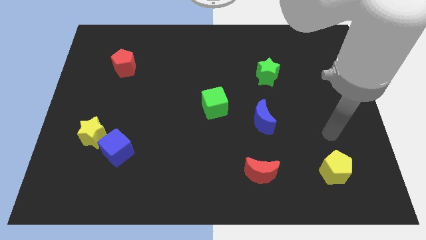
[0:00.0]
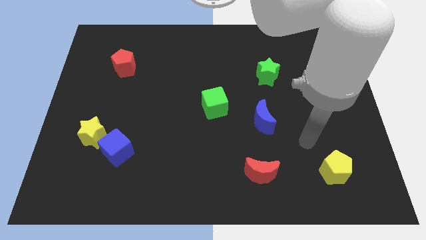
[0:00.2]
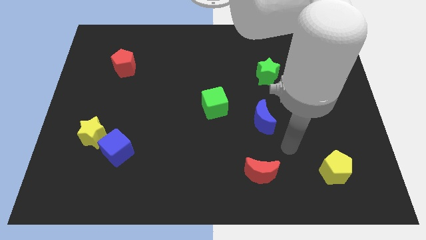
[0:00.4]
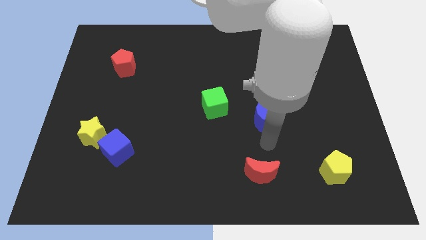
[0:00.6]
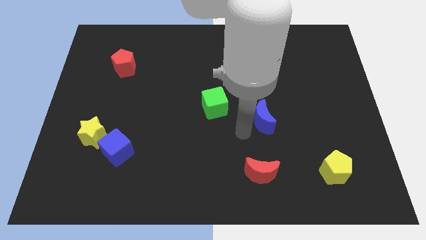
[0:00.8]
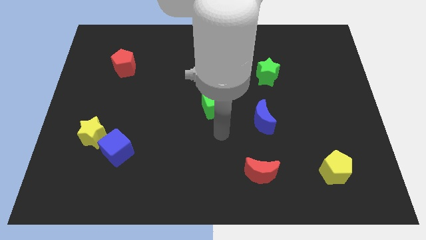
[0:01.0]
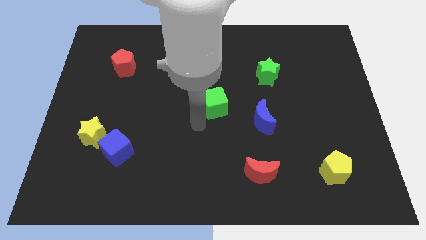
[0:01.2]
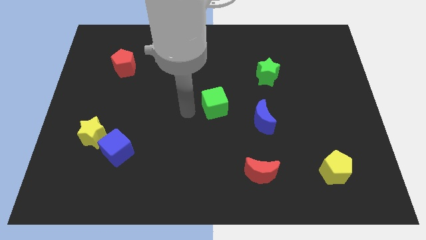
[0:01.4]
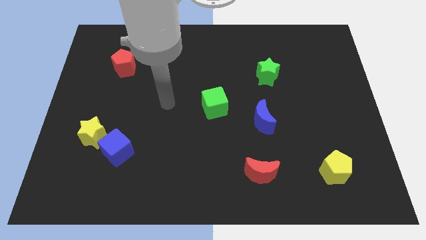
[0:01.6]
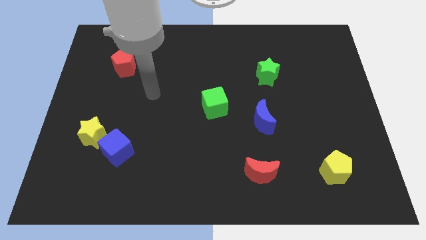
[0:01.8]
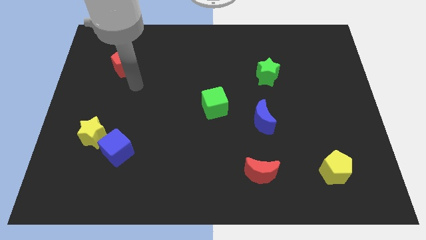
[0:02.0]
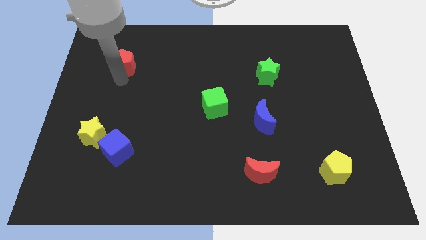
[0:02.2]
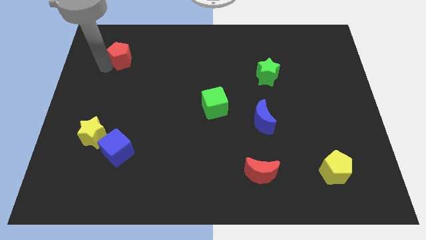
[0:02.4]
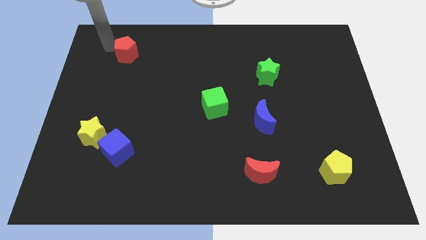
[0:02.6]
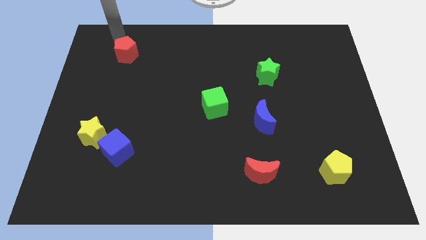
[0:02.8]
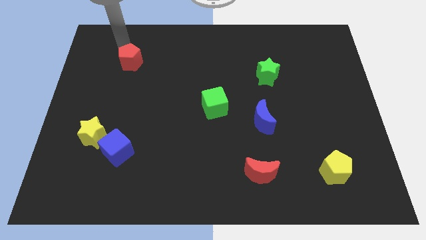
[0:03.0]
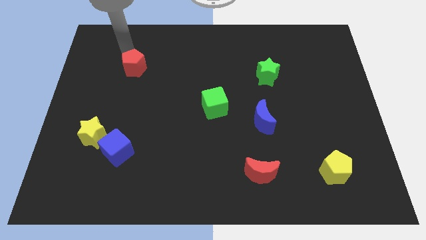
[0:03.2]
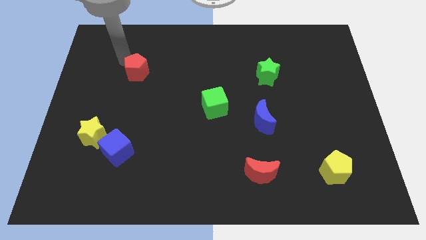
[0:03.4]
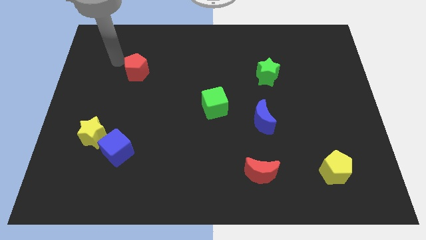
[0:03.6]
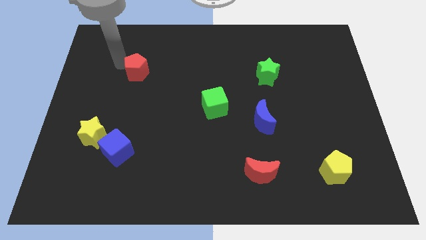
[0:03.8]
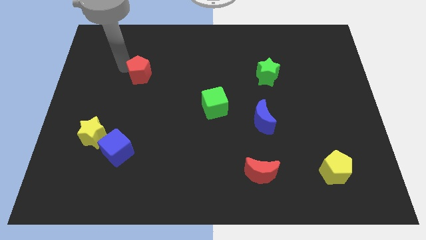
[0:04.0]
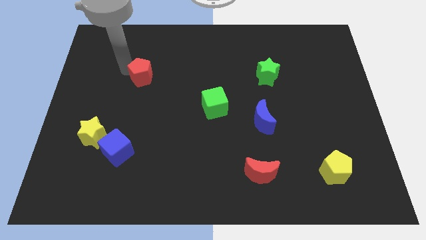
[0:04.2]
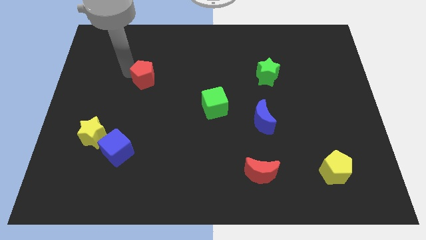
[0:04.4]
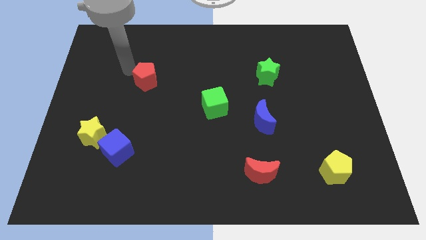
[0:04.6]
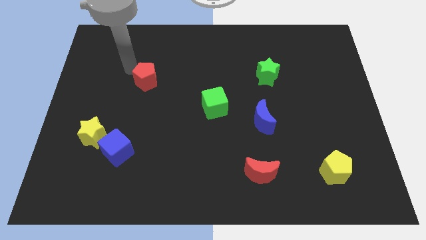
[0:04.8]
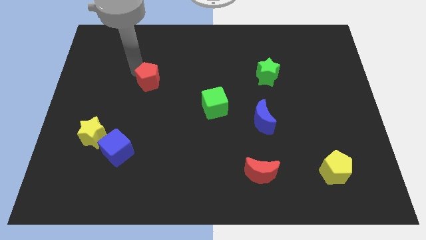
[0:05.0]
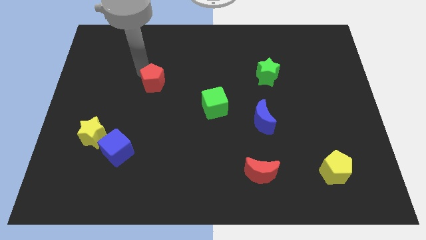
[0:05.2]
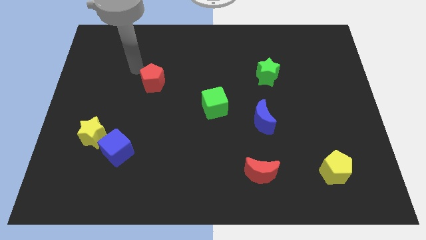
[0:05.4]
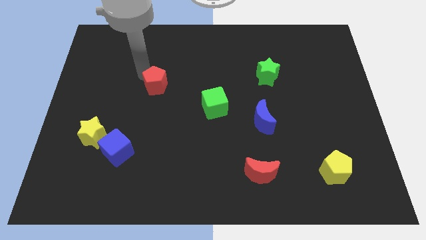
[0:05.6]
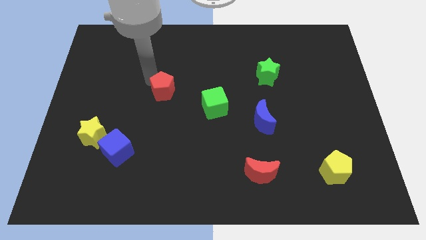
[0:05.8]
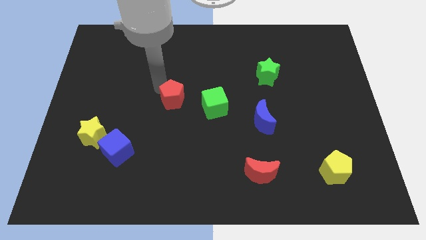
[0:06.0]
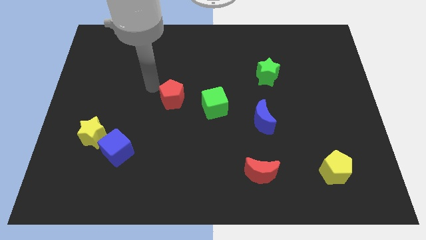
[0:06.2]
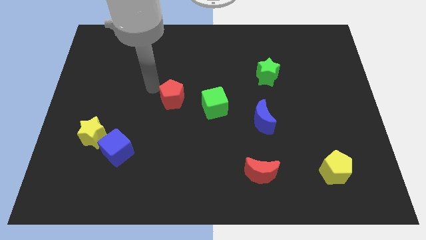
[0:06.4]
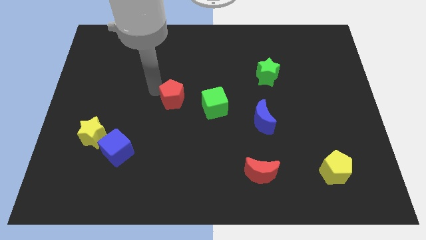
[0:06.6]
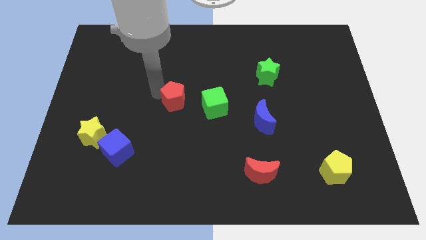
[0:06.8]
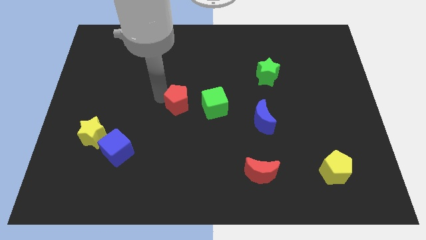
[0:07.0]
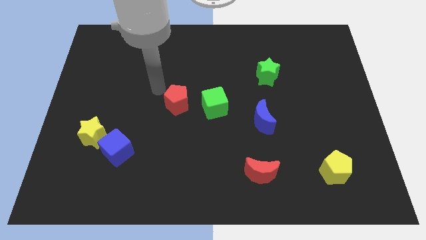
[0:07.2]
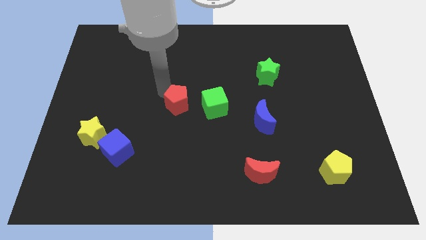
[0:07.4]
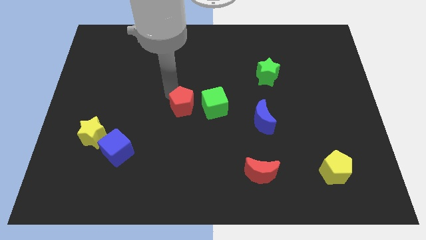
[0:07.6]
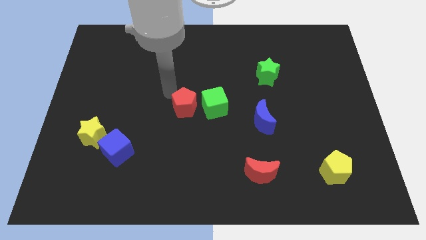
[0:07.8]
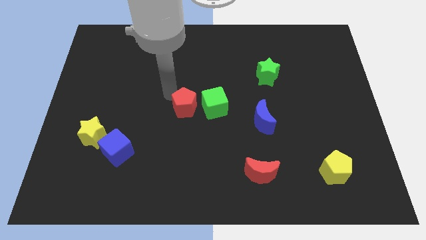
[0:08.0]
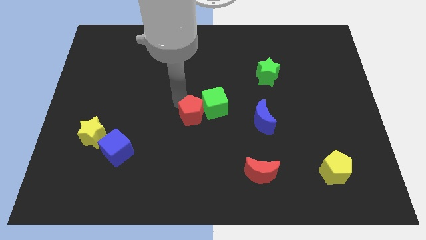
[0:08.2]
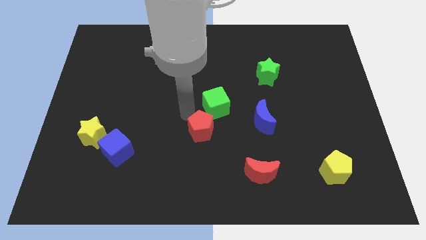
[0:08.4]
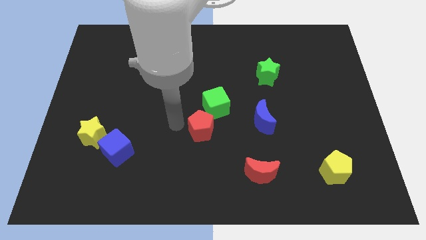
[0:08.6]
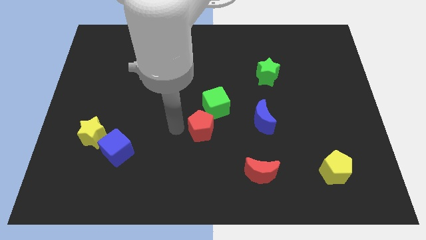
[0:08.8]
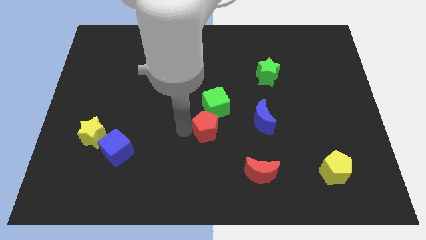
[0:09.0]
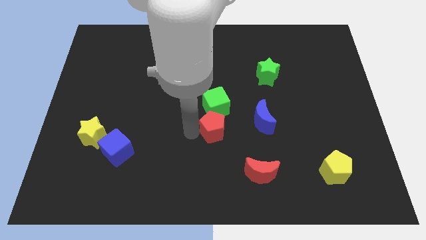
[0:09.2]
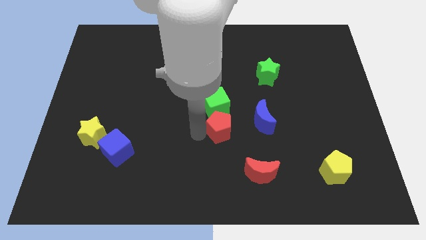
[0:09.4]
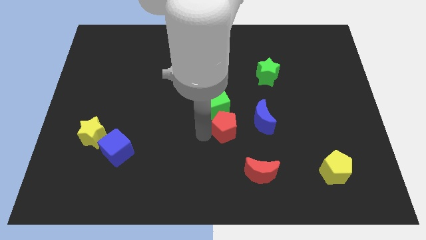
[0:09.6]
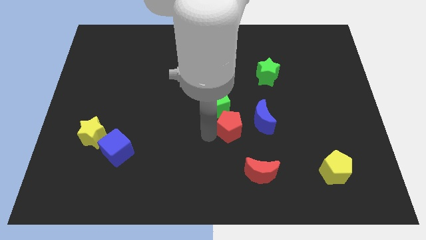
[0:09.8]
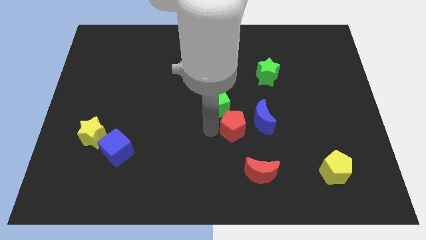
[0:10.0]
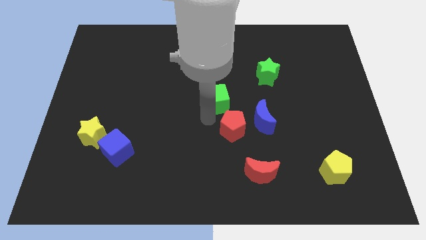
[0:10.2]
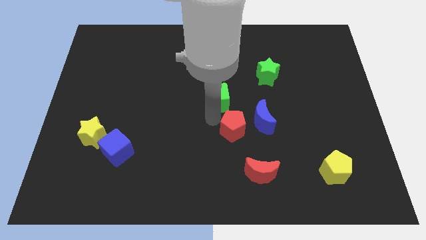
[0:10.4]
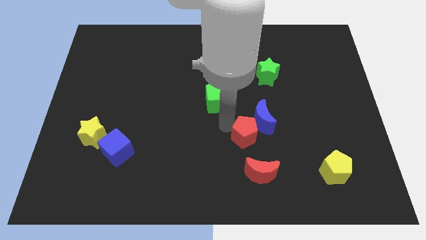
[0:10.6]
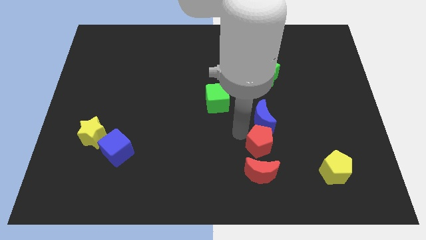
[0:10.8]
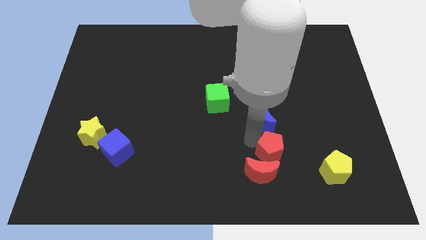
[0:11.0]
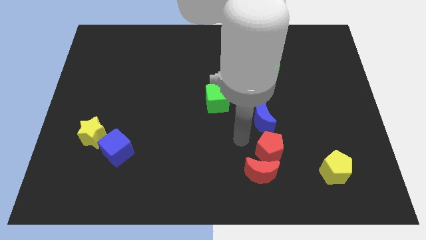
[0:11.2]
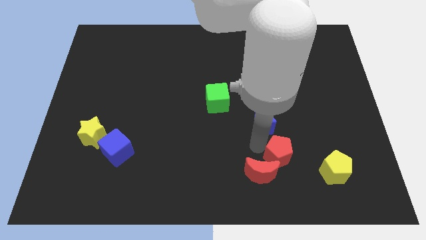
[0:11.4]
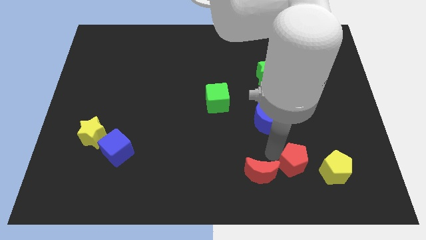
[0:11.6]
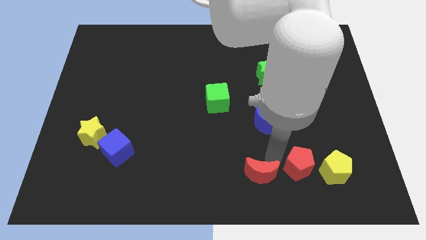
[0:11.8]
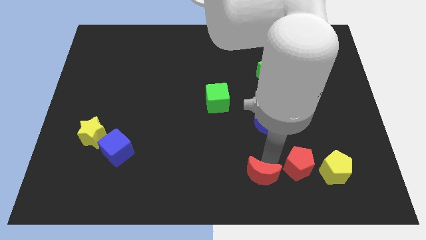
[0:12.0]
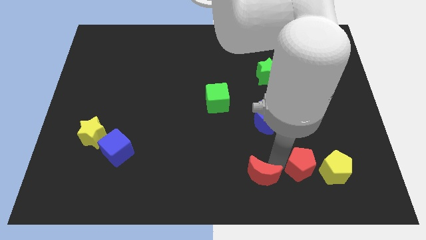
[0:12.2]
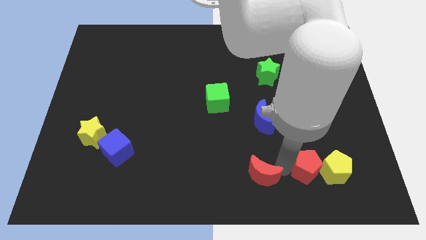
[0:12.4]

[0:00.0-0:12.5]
put the red pentagon close to the yellow pentagon
